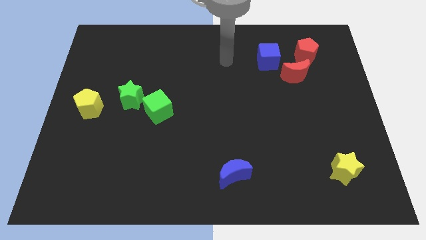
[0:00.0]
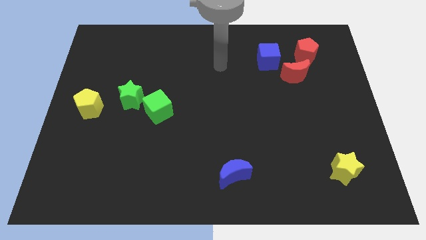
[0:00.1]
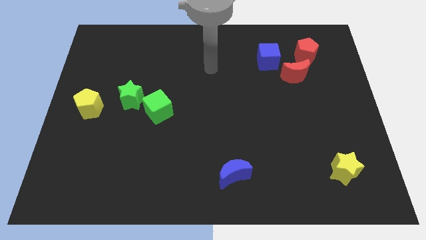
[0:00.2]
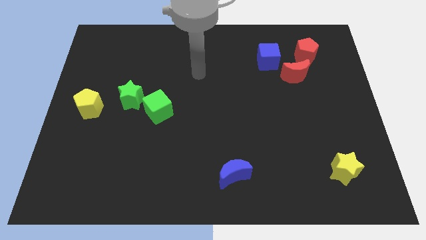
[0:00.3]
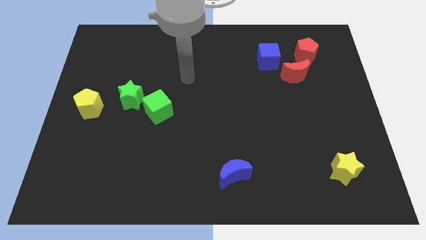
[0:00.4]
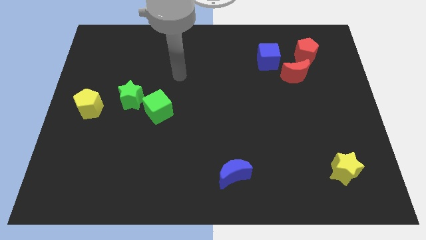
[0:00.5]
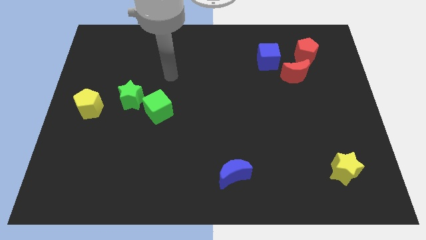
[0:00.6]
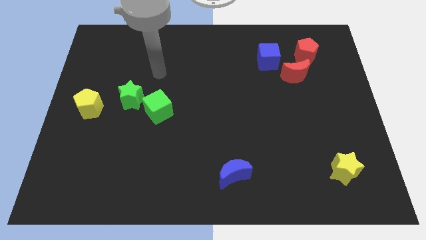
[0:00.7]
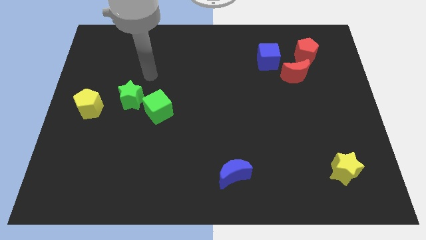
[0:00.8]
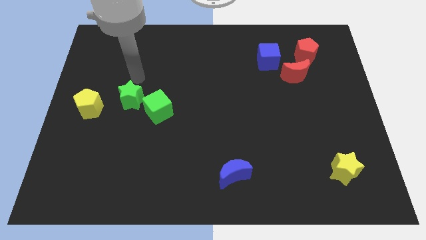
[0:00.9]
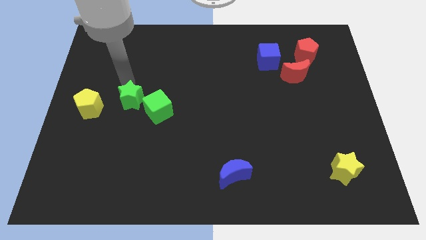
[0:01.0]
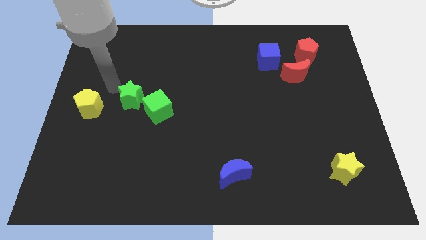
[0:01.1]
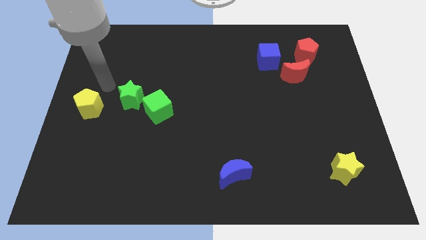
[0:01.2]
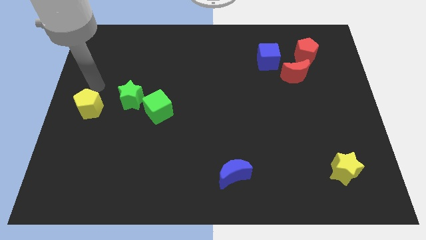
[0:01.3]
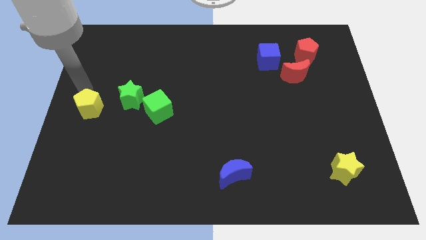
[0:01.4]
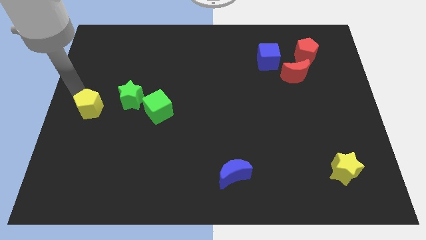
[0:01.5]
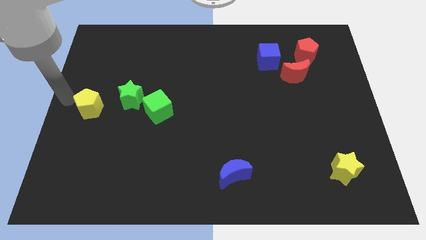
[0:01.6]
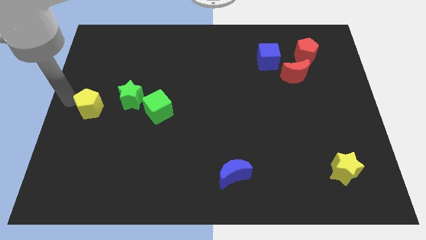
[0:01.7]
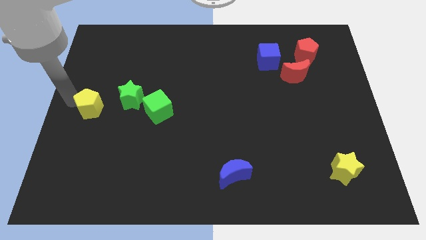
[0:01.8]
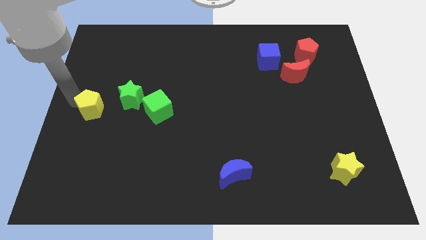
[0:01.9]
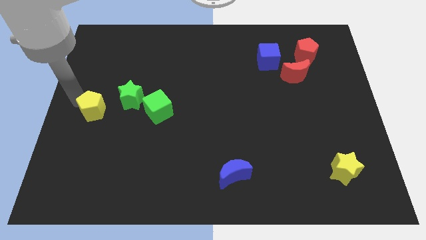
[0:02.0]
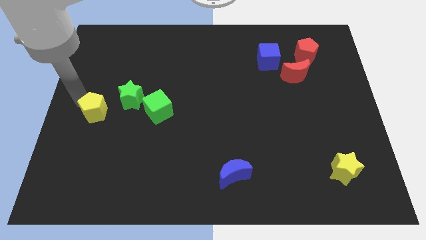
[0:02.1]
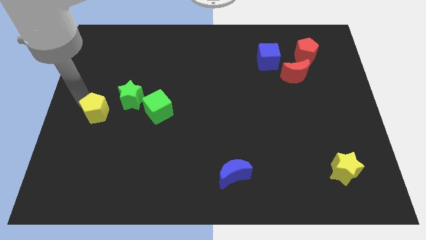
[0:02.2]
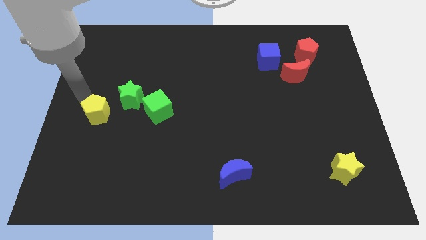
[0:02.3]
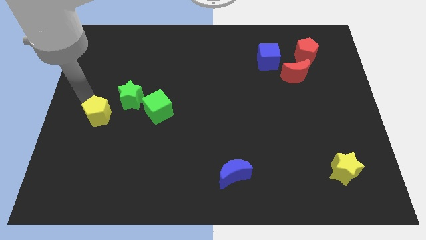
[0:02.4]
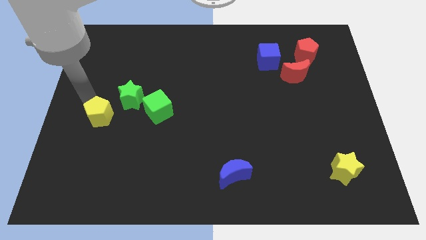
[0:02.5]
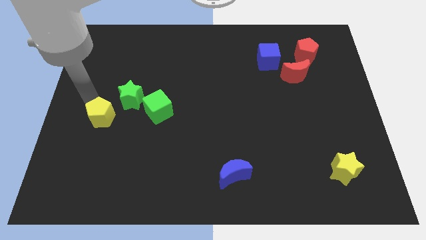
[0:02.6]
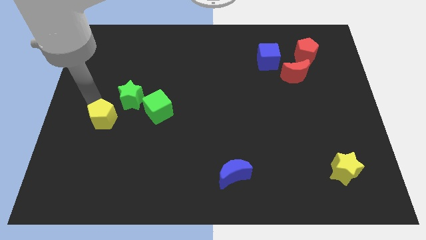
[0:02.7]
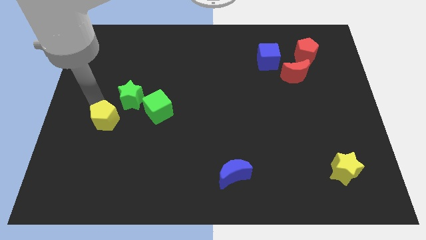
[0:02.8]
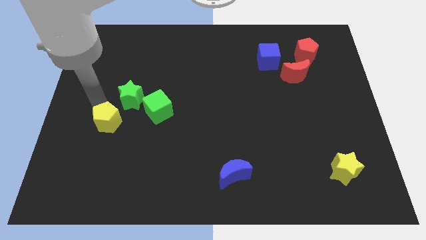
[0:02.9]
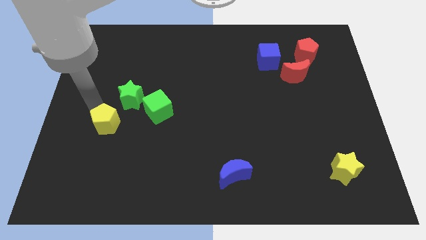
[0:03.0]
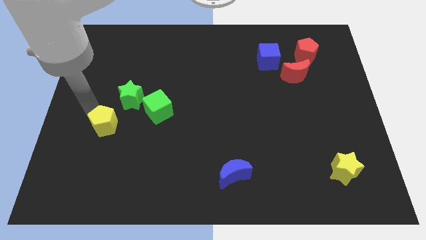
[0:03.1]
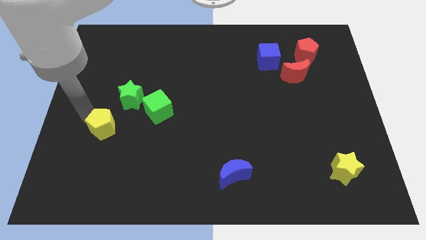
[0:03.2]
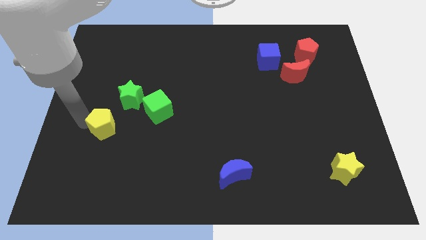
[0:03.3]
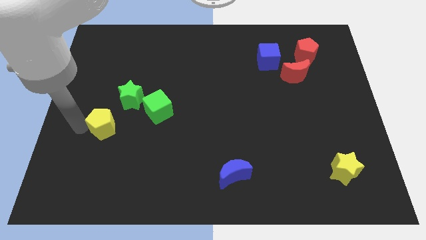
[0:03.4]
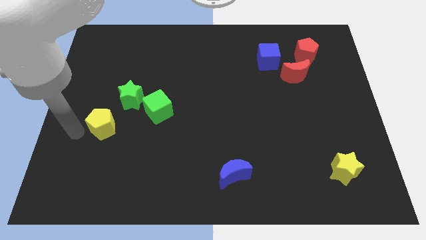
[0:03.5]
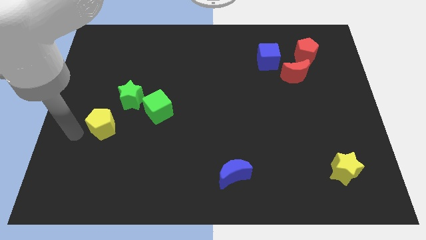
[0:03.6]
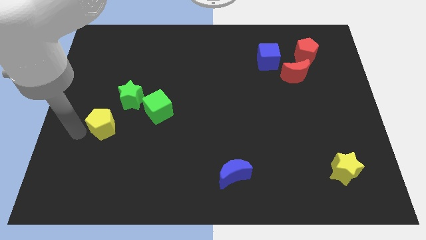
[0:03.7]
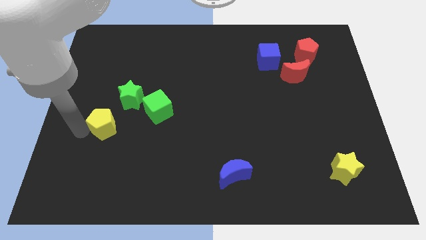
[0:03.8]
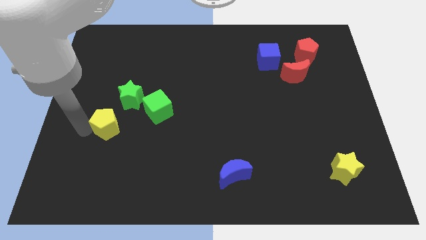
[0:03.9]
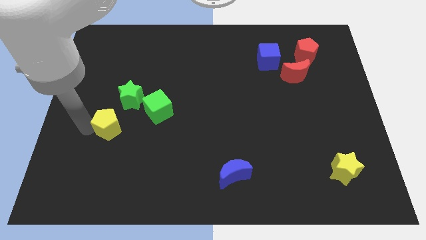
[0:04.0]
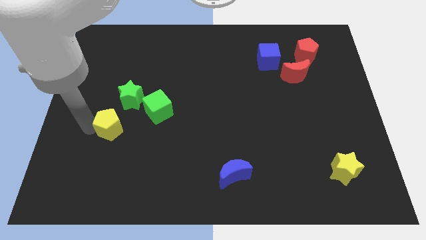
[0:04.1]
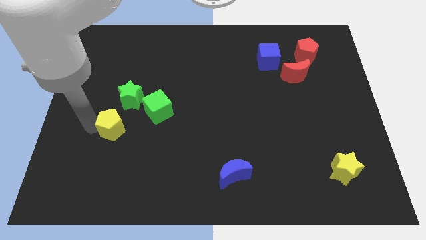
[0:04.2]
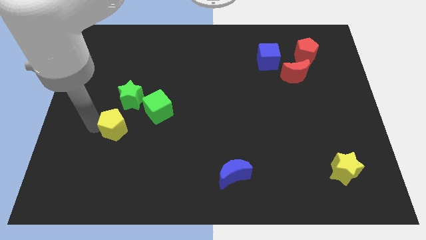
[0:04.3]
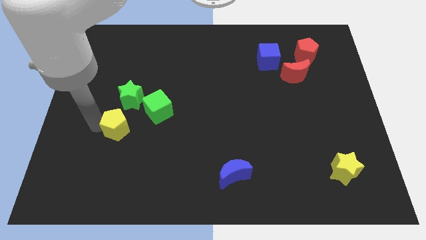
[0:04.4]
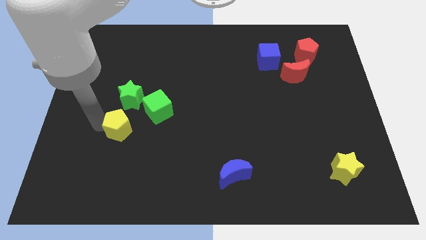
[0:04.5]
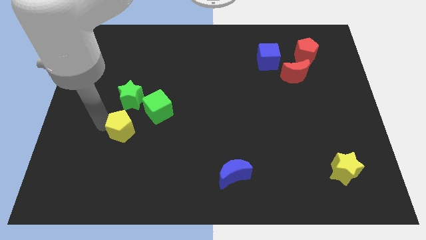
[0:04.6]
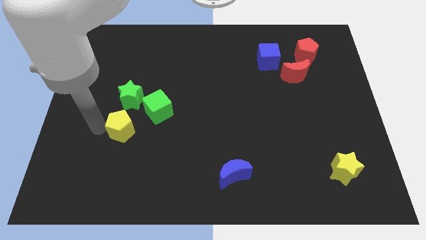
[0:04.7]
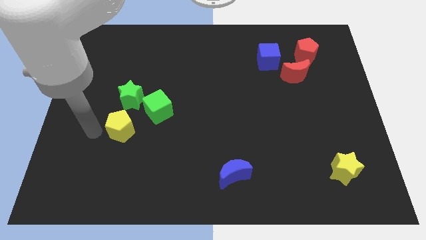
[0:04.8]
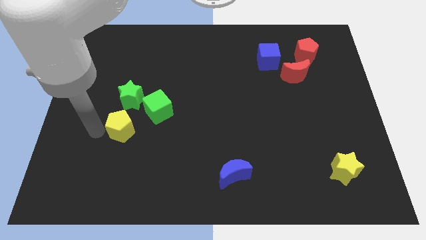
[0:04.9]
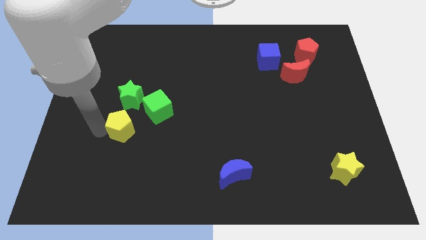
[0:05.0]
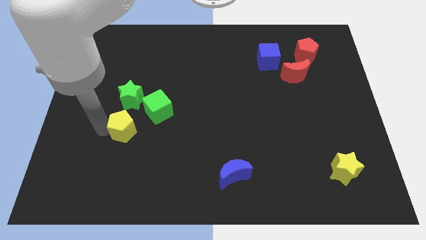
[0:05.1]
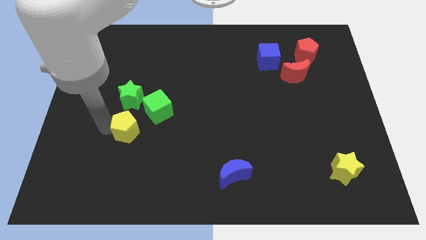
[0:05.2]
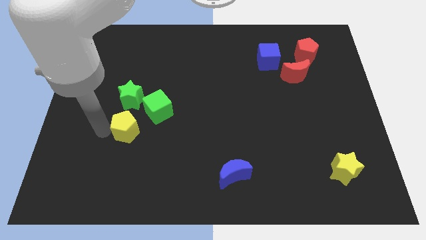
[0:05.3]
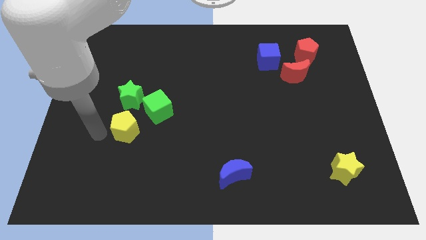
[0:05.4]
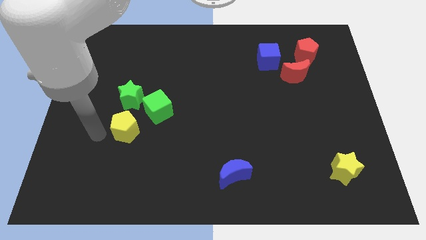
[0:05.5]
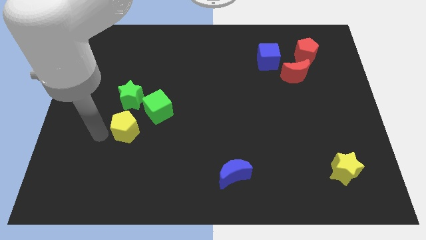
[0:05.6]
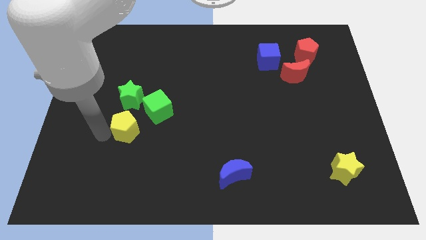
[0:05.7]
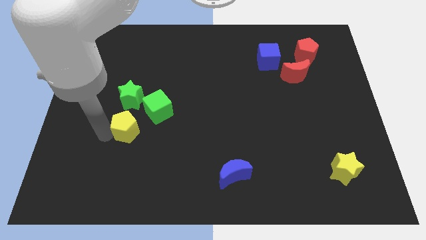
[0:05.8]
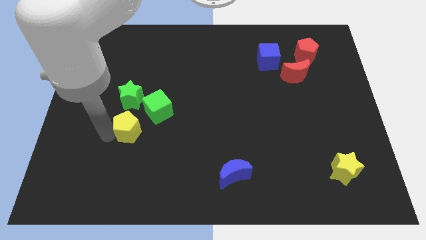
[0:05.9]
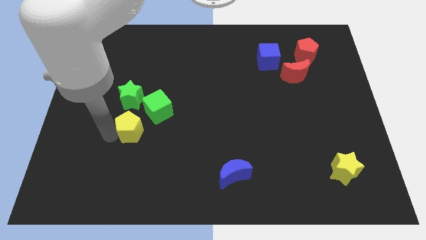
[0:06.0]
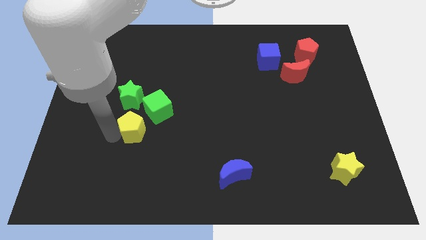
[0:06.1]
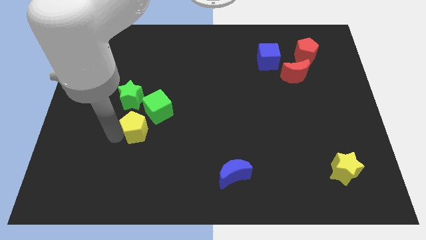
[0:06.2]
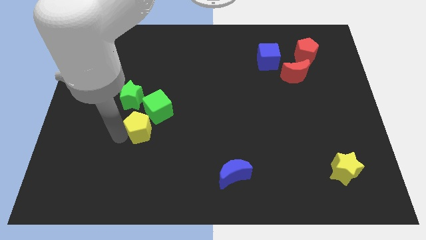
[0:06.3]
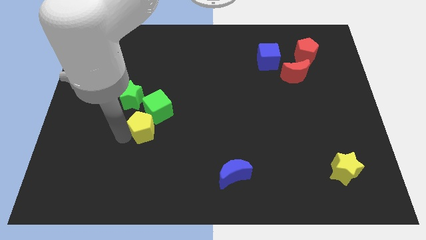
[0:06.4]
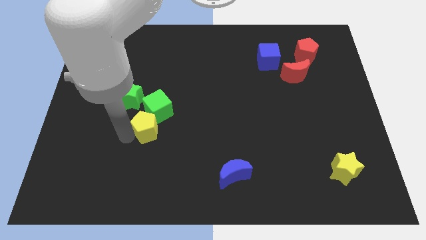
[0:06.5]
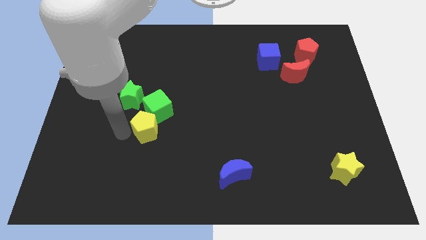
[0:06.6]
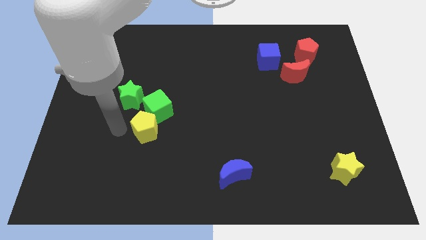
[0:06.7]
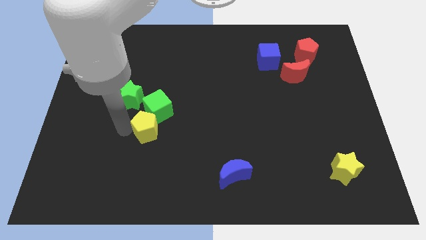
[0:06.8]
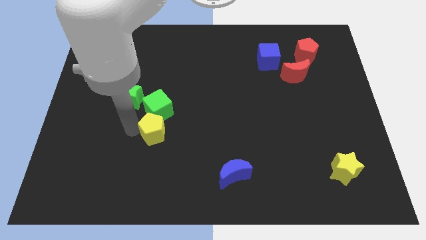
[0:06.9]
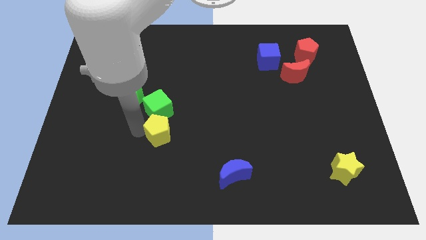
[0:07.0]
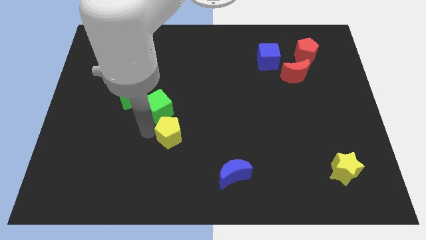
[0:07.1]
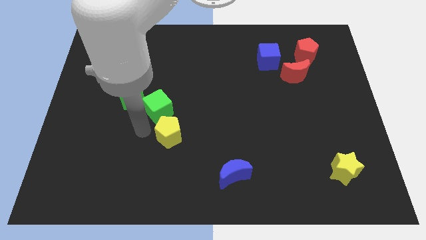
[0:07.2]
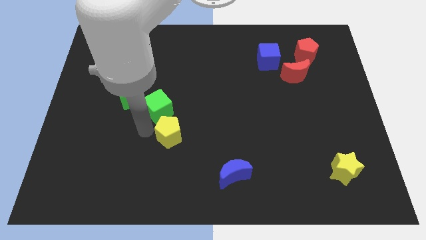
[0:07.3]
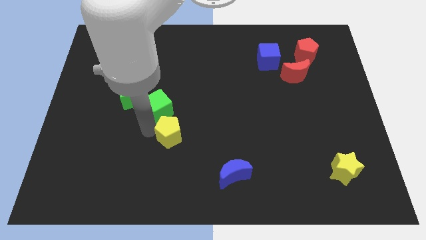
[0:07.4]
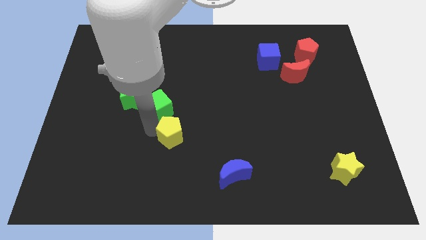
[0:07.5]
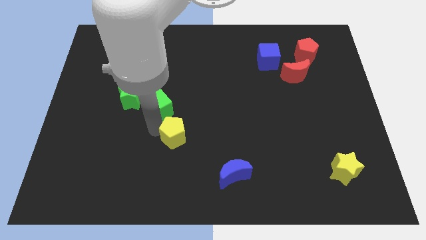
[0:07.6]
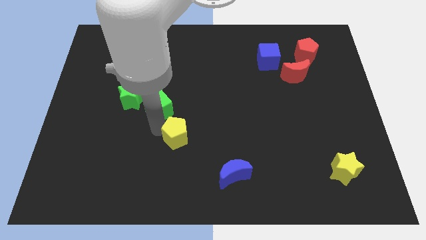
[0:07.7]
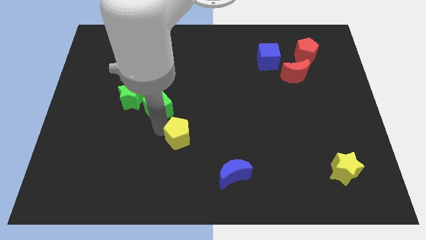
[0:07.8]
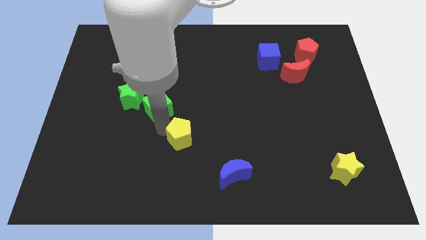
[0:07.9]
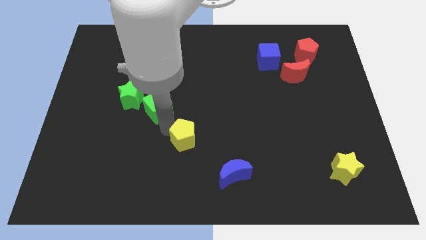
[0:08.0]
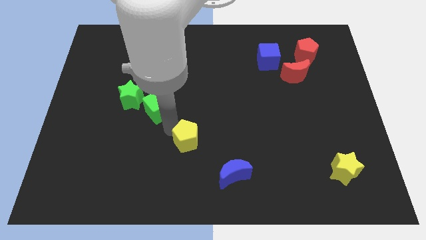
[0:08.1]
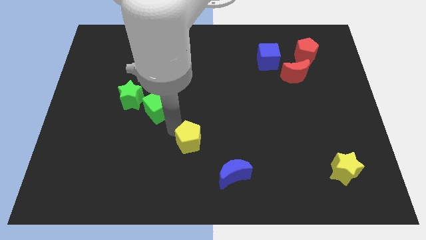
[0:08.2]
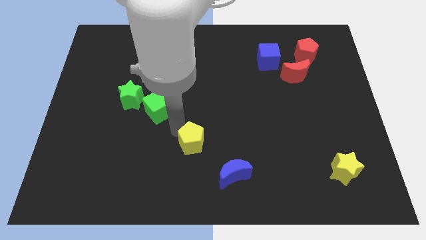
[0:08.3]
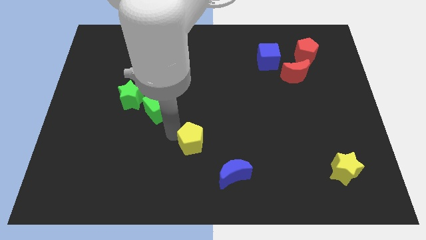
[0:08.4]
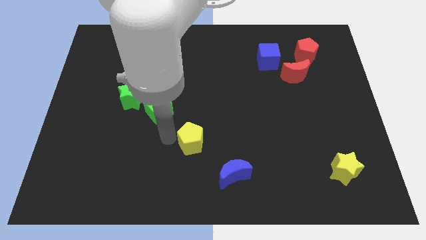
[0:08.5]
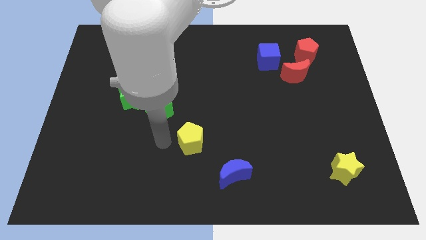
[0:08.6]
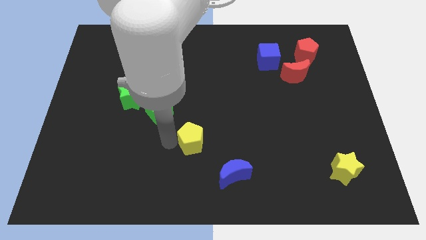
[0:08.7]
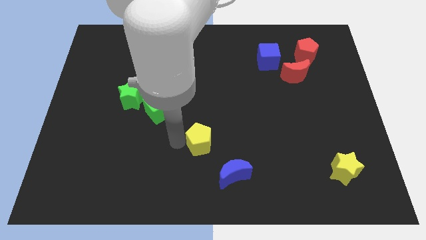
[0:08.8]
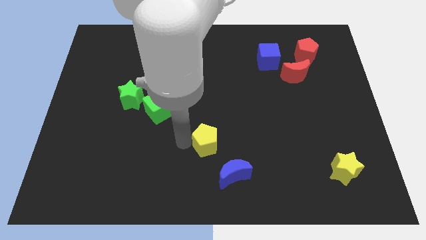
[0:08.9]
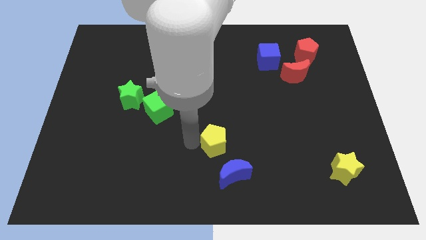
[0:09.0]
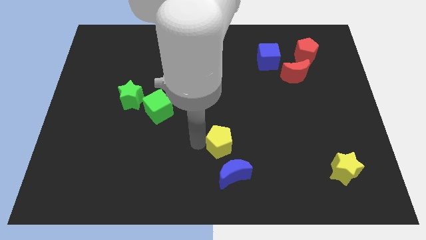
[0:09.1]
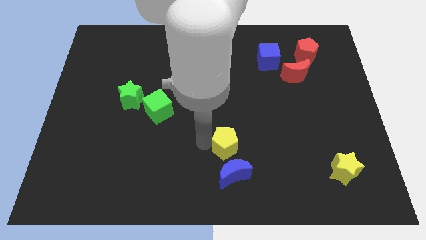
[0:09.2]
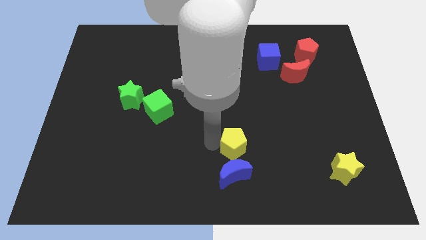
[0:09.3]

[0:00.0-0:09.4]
slide the yellow pentagon to the top right of the blue moon
